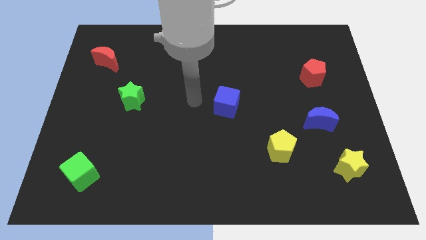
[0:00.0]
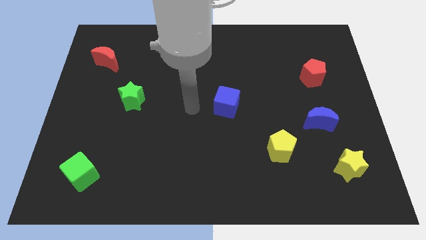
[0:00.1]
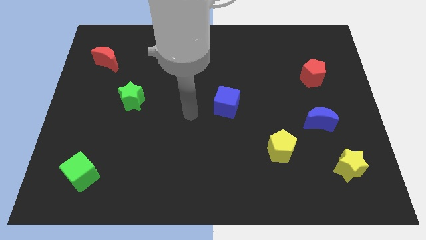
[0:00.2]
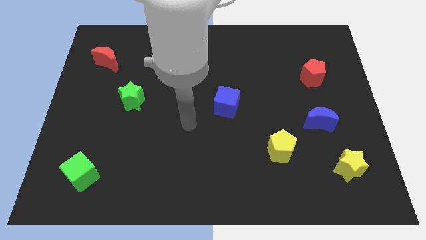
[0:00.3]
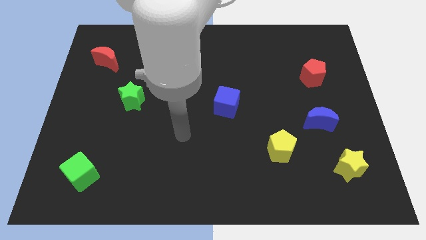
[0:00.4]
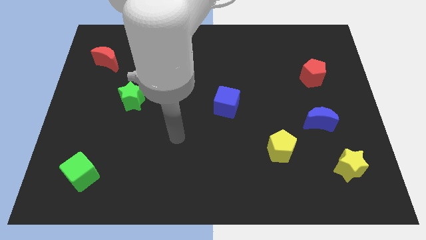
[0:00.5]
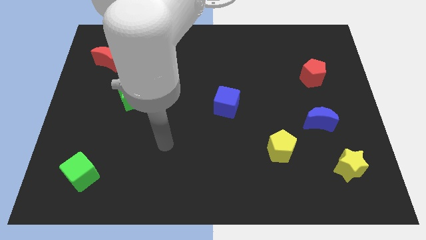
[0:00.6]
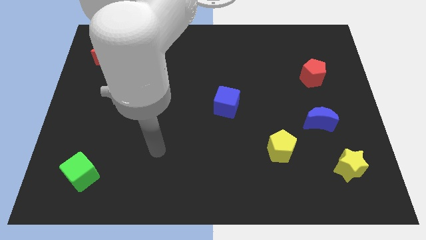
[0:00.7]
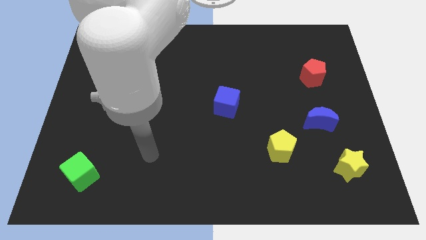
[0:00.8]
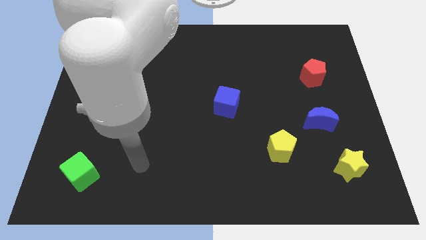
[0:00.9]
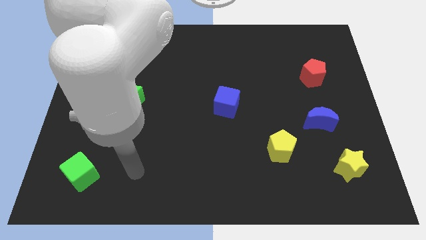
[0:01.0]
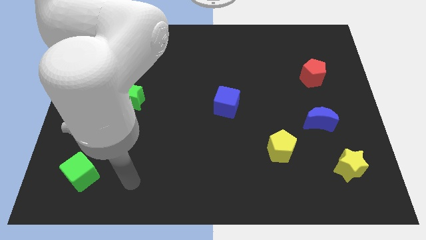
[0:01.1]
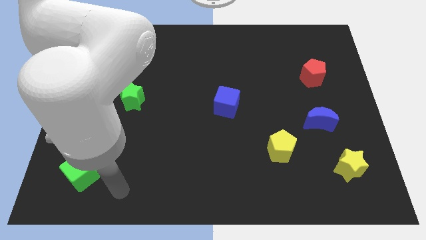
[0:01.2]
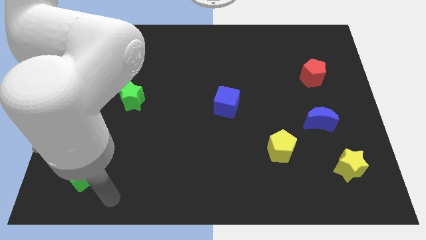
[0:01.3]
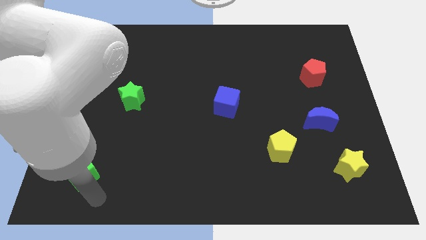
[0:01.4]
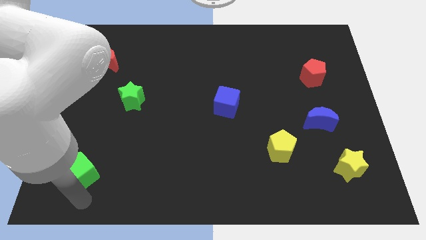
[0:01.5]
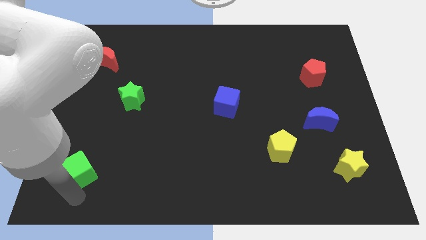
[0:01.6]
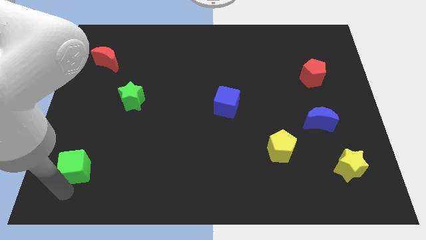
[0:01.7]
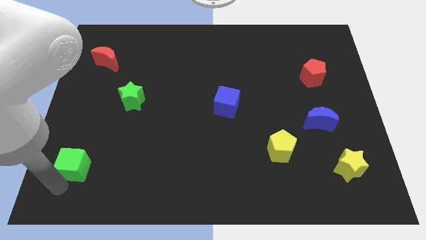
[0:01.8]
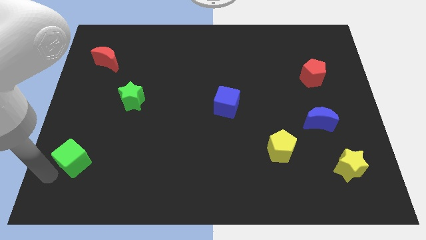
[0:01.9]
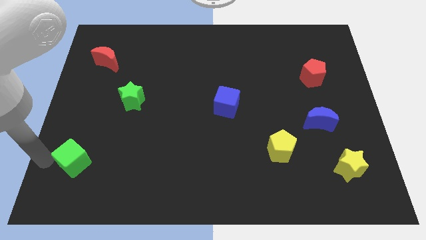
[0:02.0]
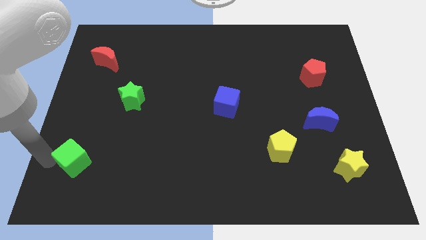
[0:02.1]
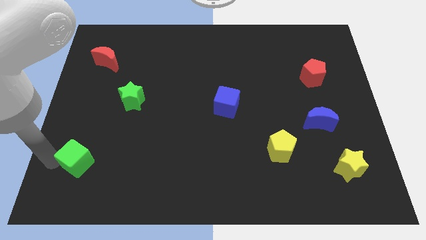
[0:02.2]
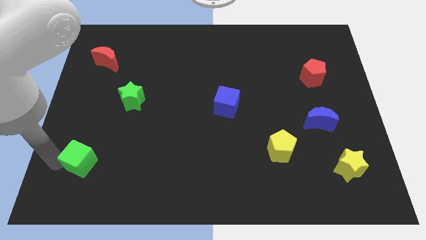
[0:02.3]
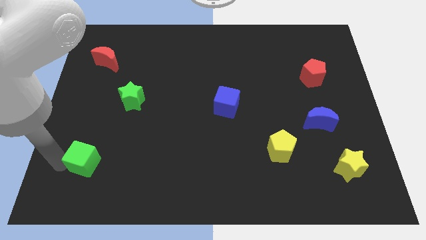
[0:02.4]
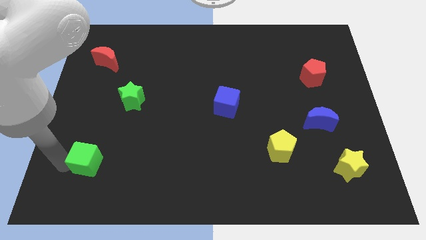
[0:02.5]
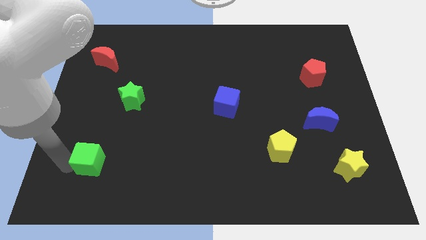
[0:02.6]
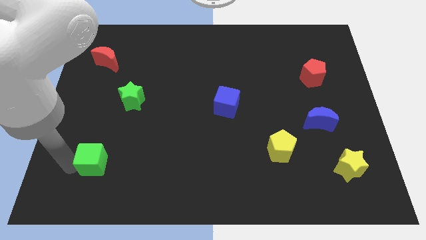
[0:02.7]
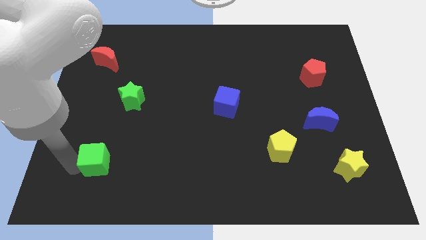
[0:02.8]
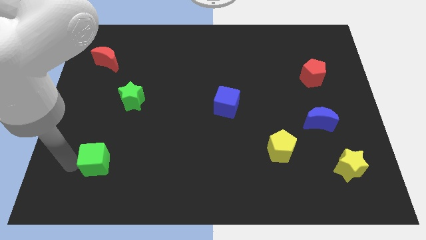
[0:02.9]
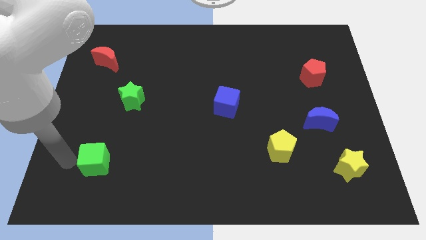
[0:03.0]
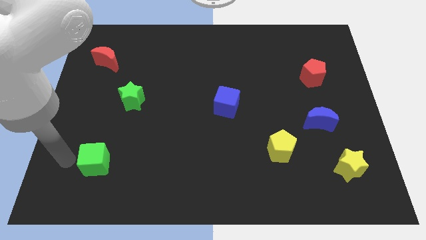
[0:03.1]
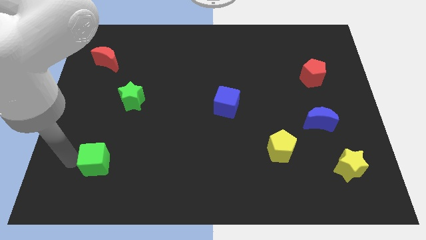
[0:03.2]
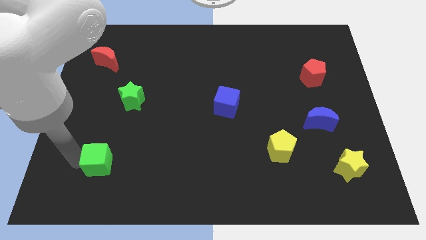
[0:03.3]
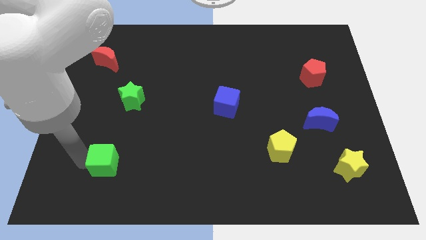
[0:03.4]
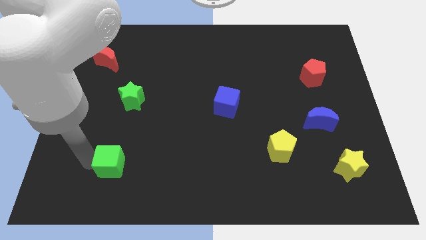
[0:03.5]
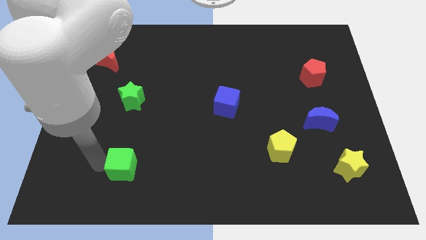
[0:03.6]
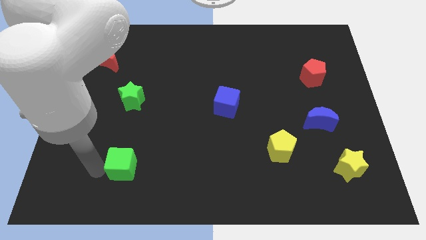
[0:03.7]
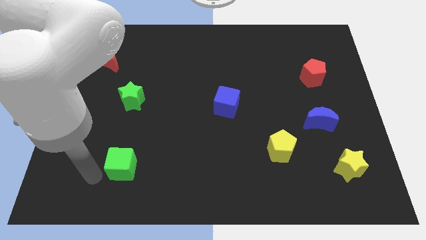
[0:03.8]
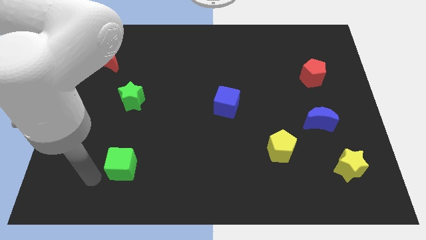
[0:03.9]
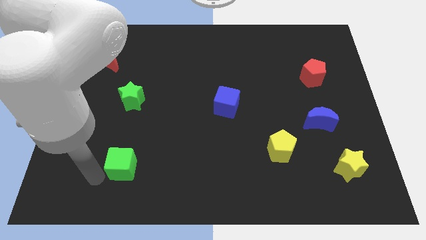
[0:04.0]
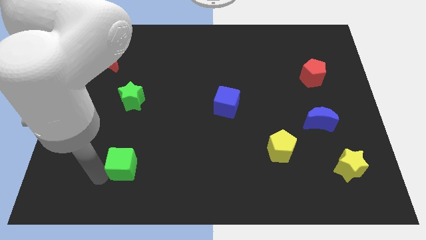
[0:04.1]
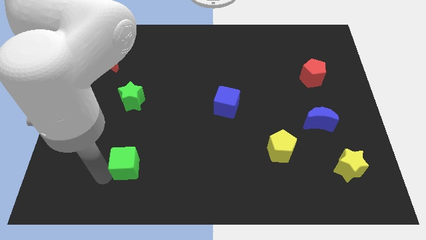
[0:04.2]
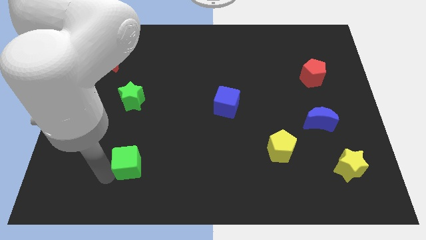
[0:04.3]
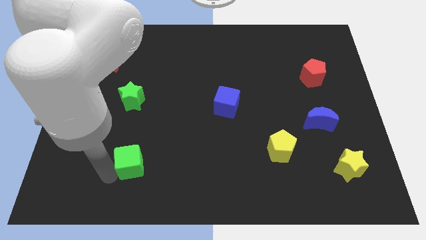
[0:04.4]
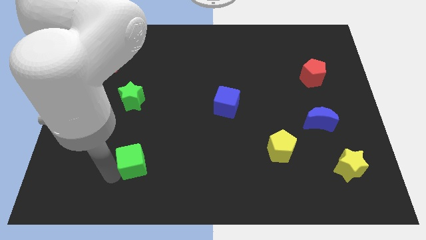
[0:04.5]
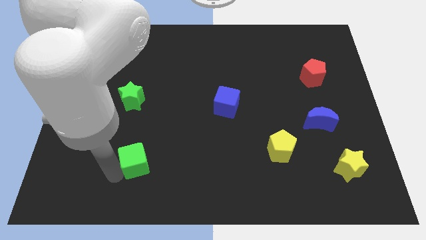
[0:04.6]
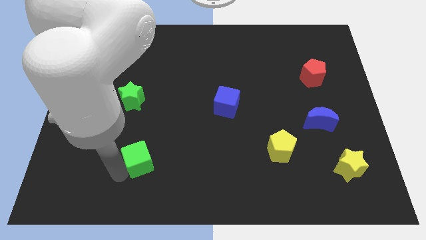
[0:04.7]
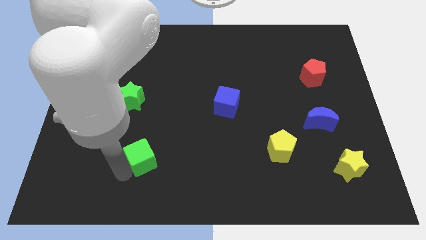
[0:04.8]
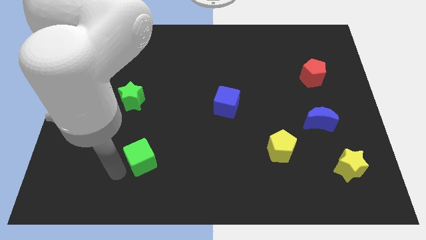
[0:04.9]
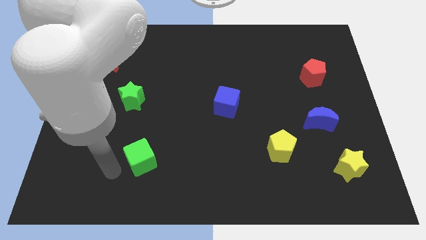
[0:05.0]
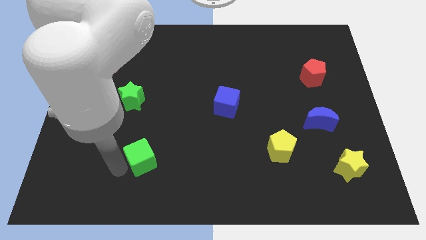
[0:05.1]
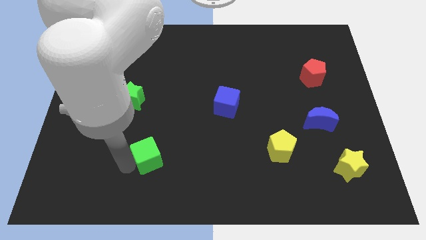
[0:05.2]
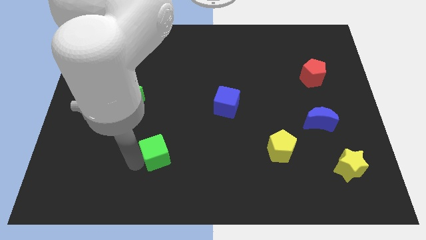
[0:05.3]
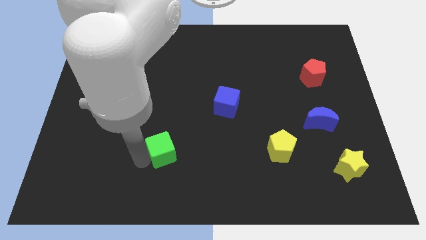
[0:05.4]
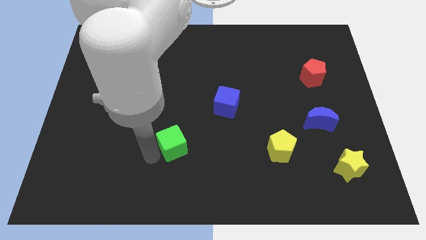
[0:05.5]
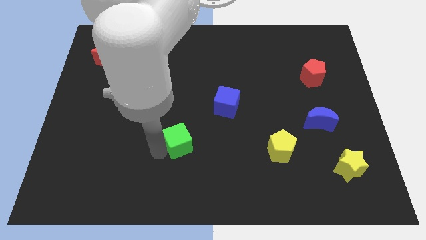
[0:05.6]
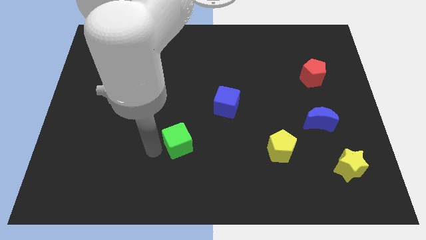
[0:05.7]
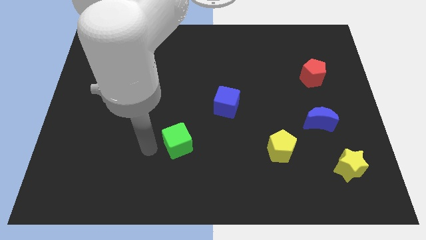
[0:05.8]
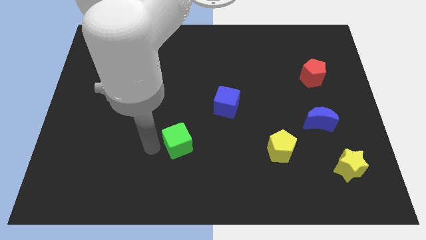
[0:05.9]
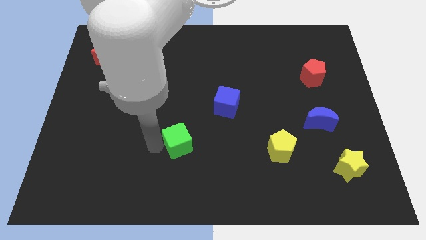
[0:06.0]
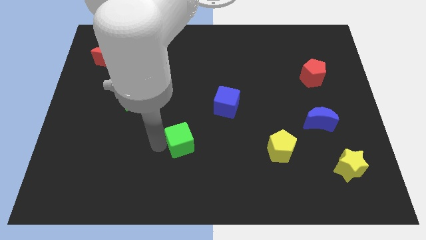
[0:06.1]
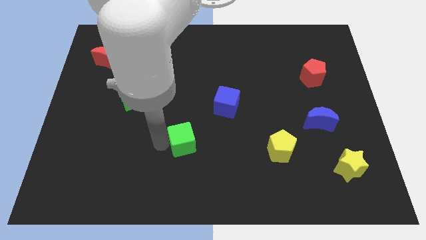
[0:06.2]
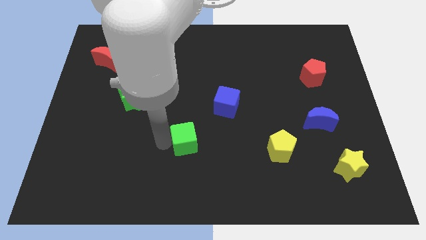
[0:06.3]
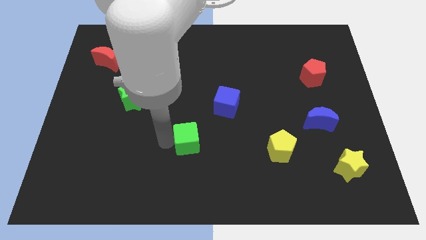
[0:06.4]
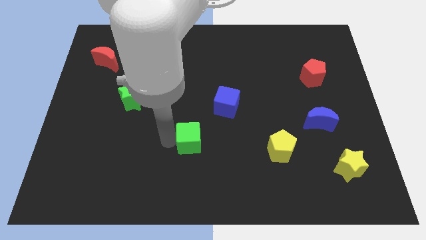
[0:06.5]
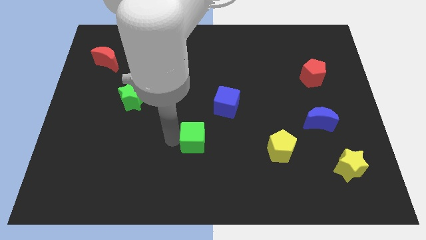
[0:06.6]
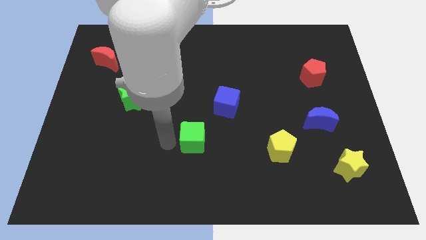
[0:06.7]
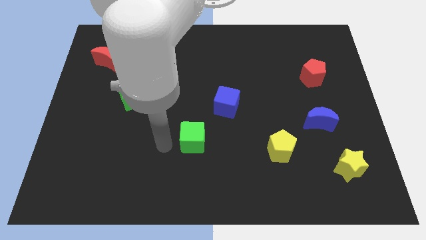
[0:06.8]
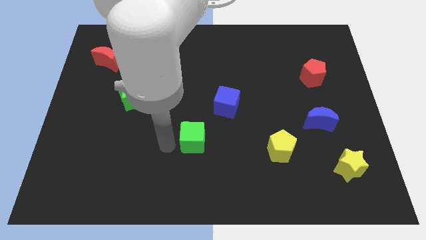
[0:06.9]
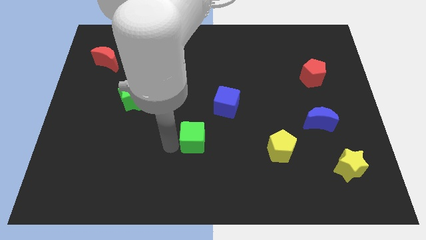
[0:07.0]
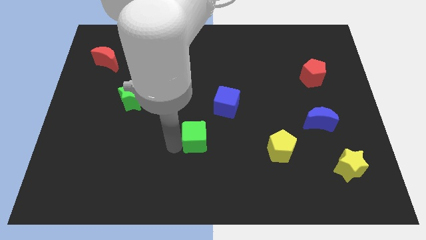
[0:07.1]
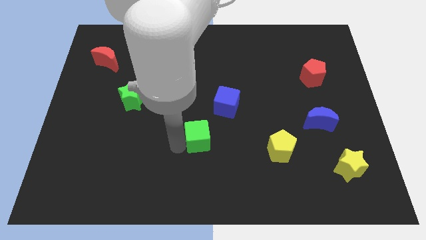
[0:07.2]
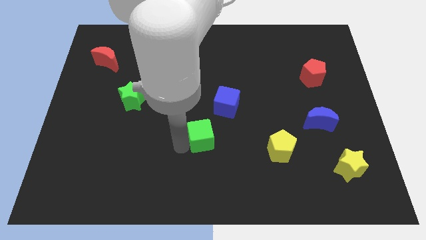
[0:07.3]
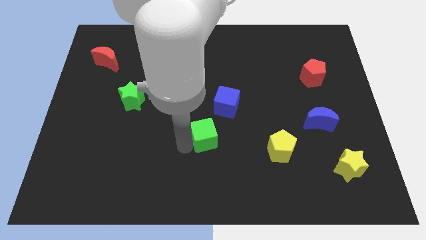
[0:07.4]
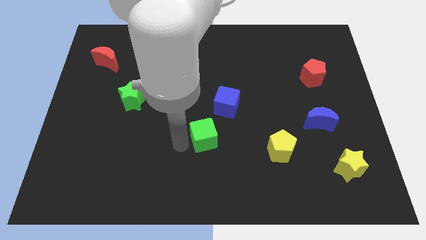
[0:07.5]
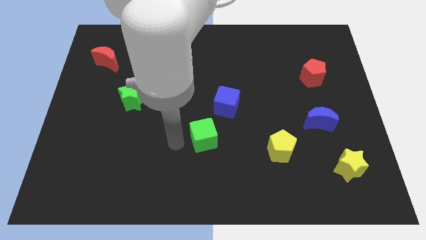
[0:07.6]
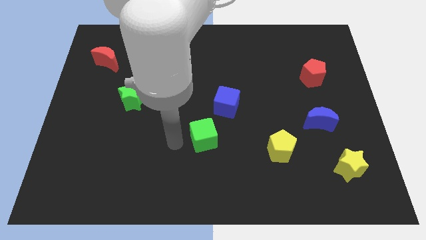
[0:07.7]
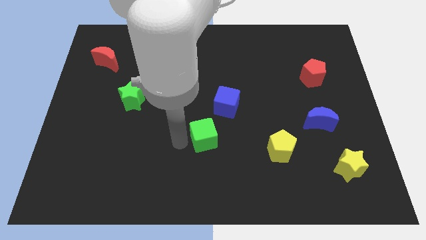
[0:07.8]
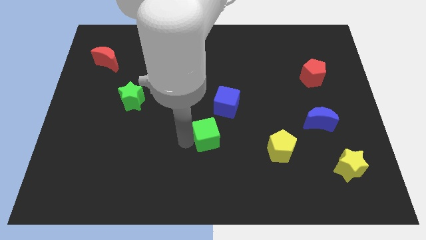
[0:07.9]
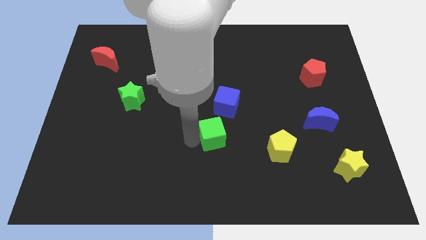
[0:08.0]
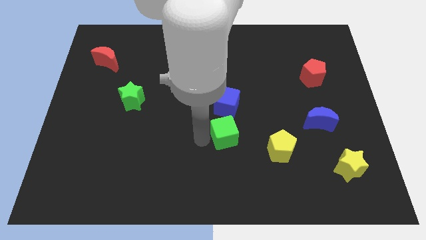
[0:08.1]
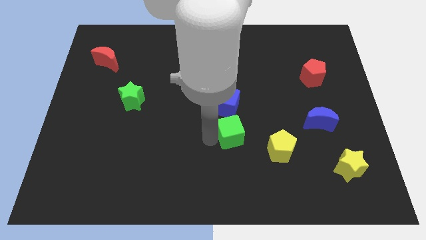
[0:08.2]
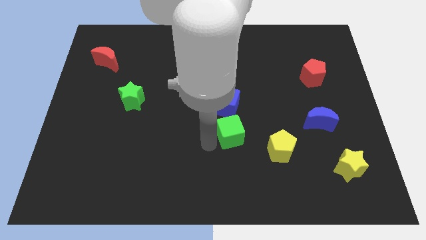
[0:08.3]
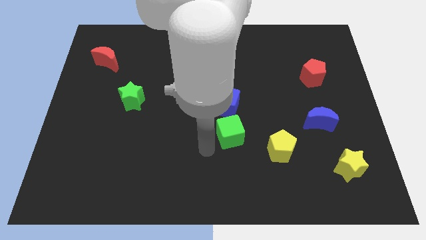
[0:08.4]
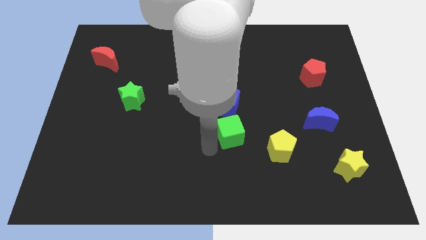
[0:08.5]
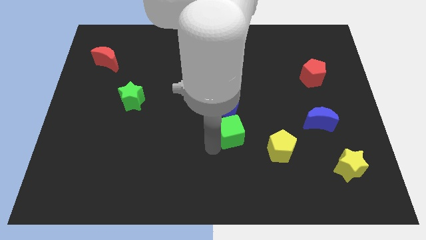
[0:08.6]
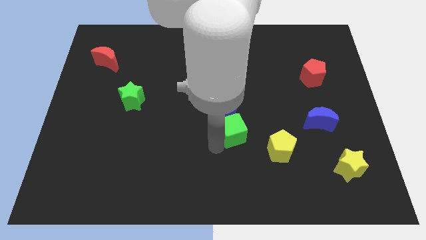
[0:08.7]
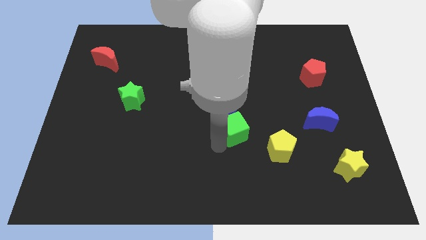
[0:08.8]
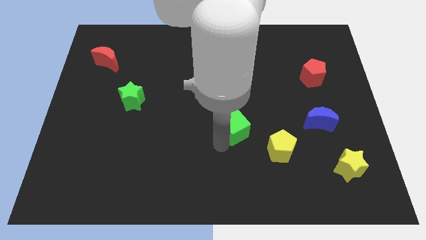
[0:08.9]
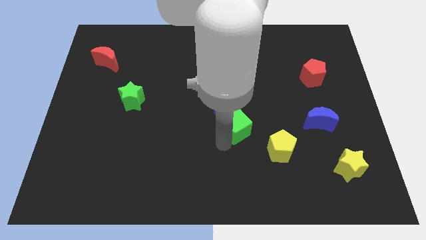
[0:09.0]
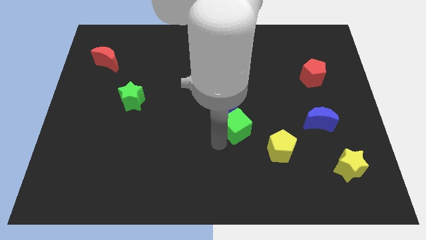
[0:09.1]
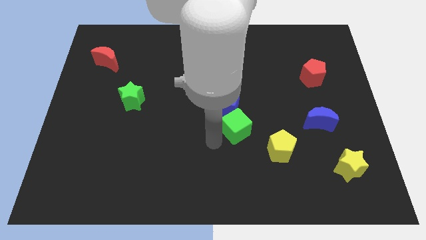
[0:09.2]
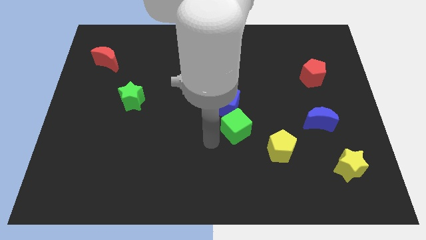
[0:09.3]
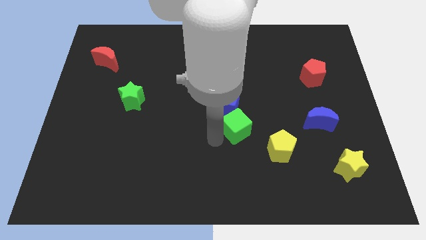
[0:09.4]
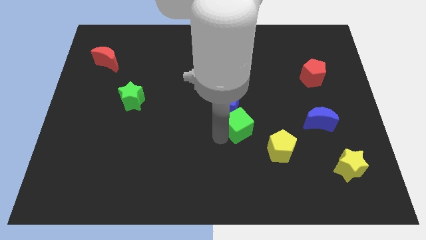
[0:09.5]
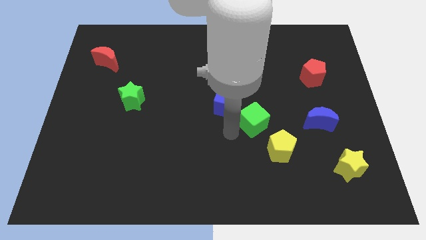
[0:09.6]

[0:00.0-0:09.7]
slide the green cube to the right side of the blue cube
